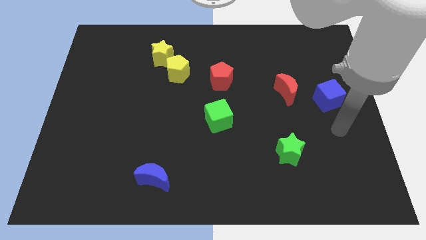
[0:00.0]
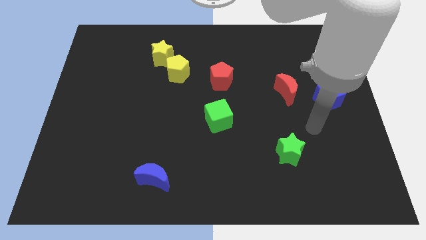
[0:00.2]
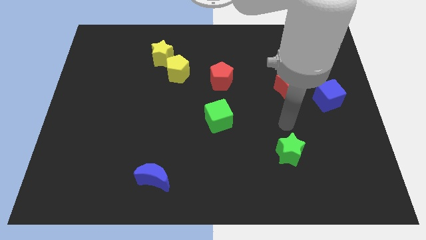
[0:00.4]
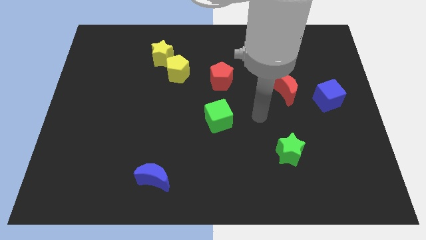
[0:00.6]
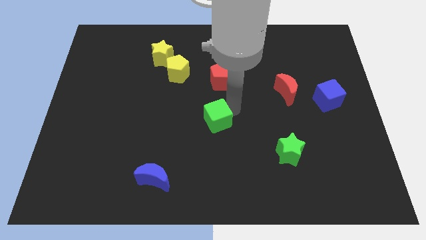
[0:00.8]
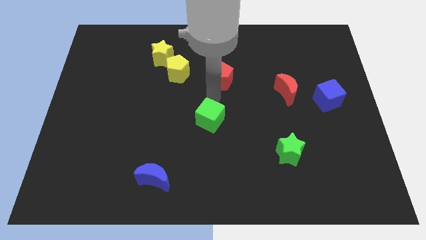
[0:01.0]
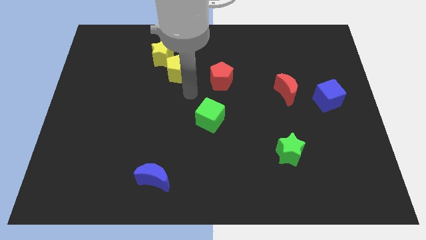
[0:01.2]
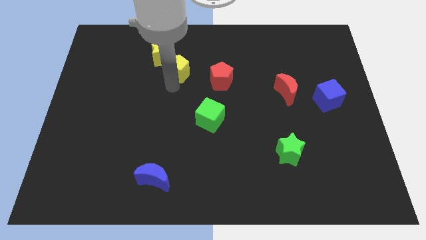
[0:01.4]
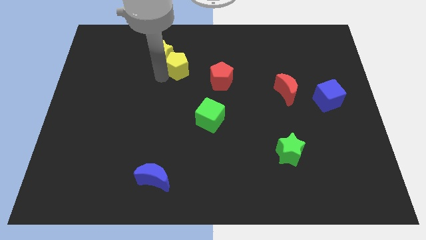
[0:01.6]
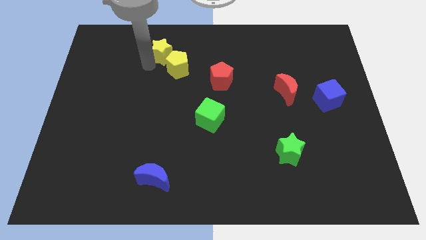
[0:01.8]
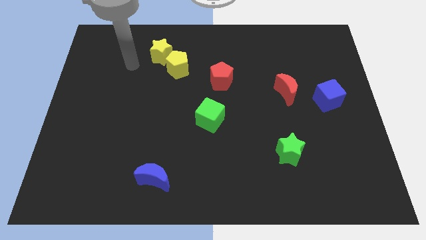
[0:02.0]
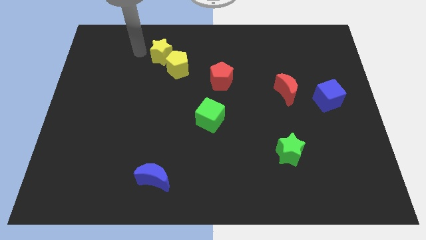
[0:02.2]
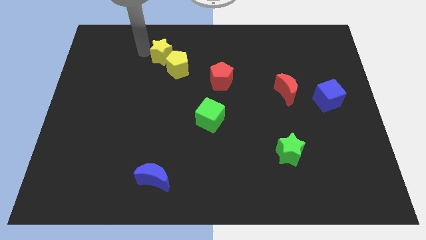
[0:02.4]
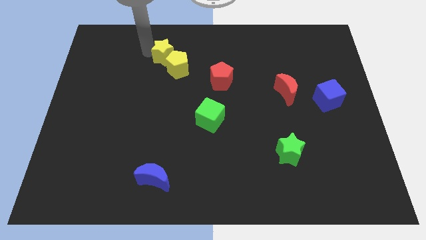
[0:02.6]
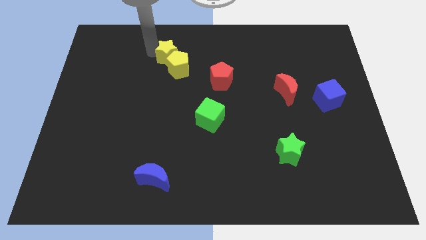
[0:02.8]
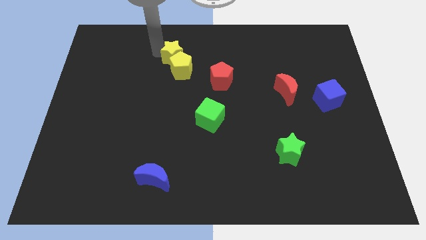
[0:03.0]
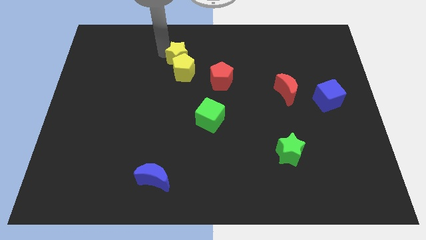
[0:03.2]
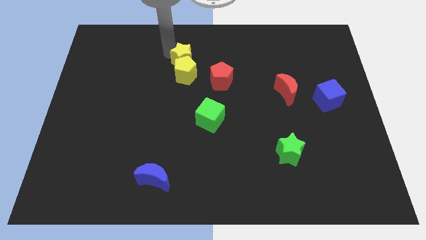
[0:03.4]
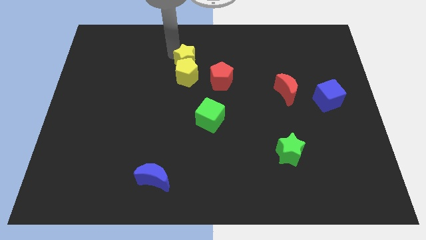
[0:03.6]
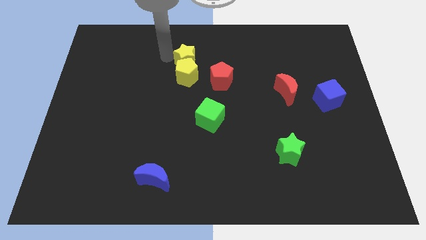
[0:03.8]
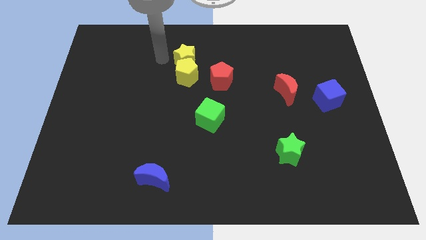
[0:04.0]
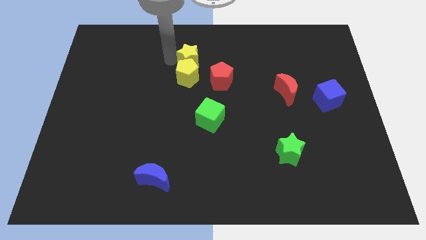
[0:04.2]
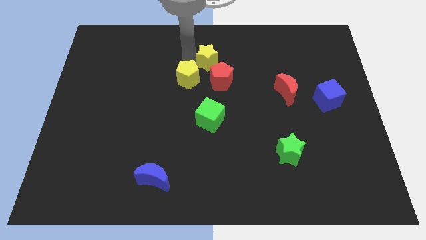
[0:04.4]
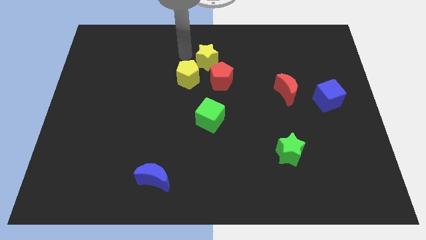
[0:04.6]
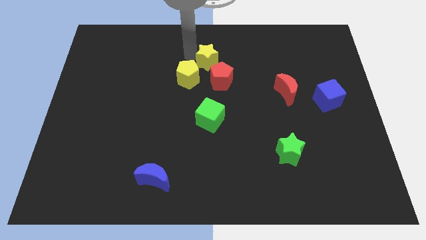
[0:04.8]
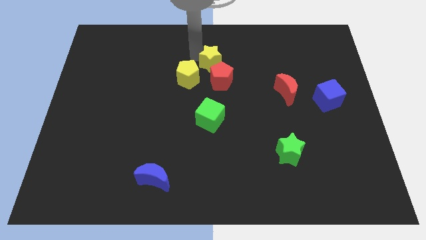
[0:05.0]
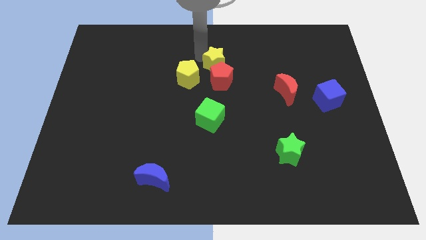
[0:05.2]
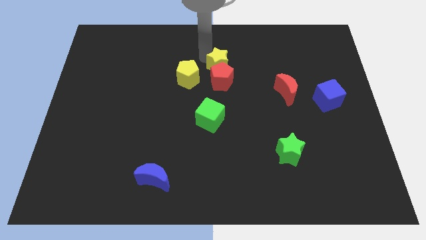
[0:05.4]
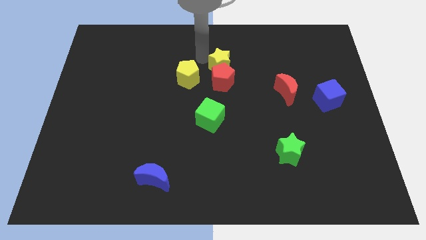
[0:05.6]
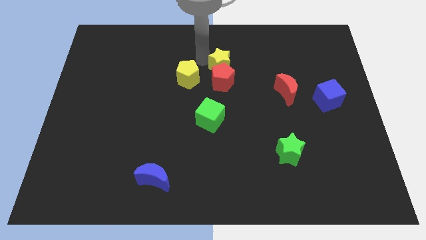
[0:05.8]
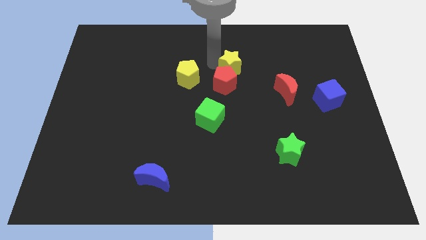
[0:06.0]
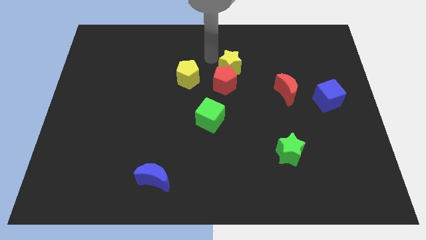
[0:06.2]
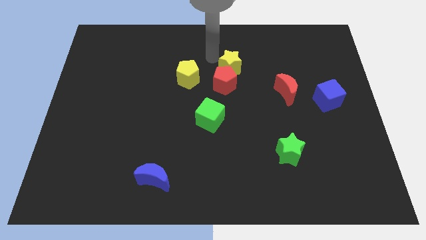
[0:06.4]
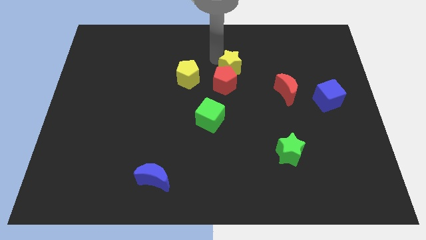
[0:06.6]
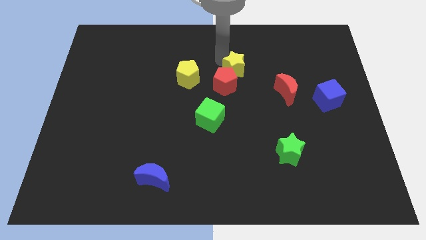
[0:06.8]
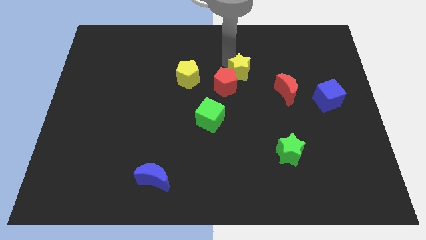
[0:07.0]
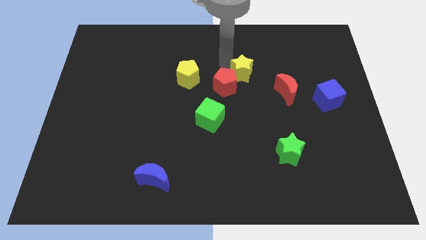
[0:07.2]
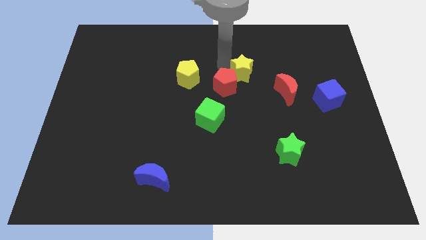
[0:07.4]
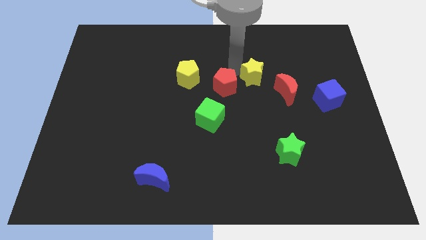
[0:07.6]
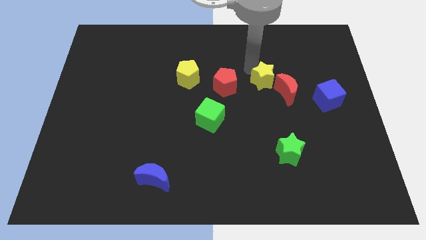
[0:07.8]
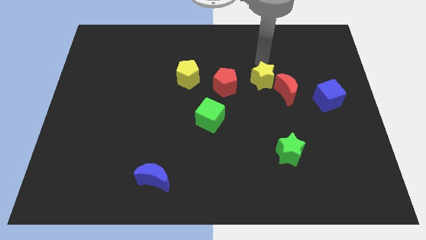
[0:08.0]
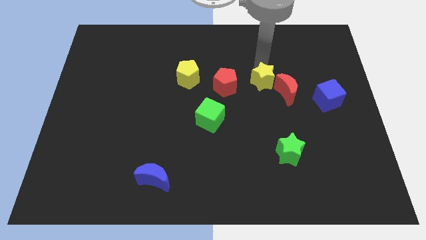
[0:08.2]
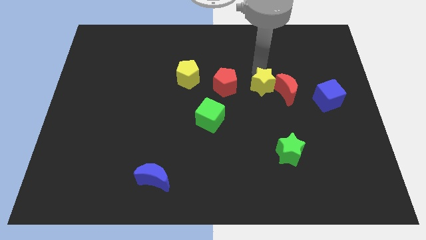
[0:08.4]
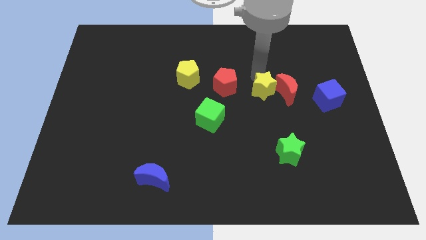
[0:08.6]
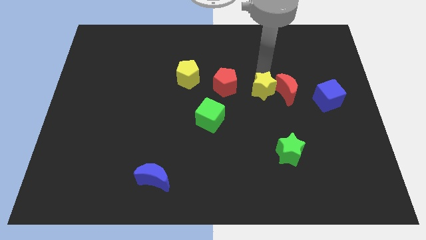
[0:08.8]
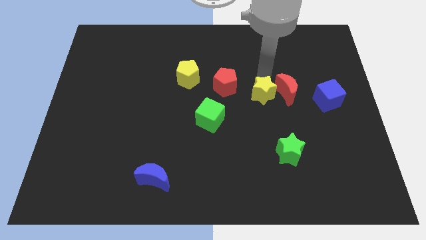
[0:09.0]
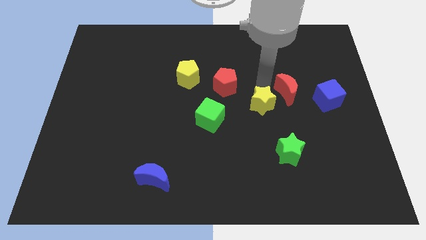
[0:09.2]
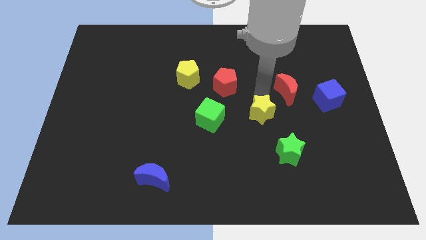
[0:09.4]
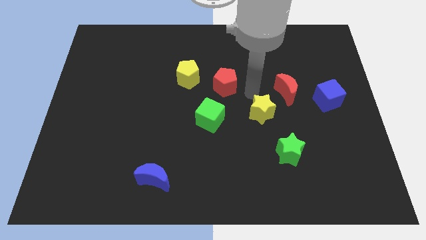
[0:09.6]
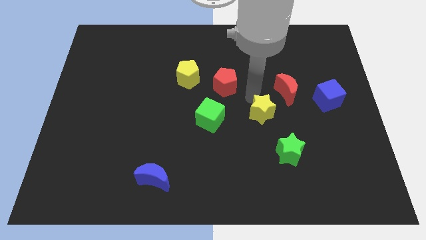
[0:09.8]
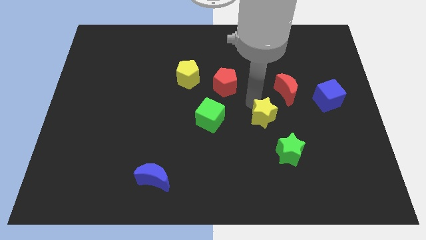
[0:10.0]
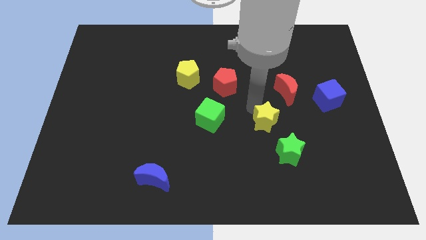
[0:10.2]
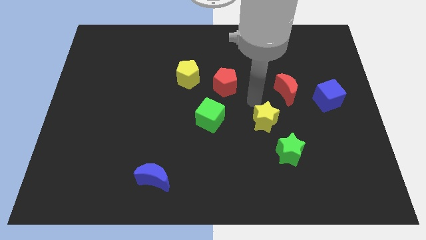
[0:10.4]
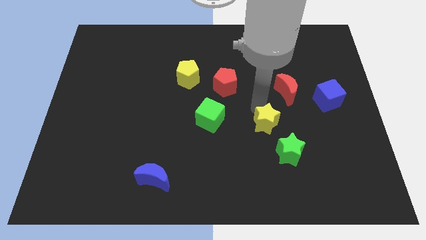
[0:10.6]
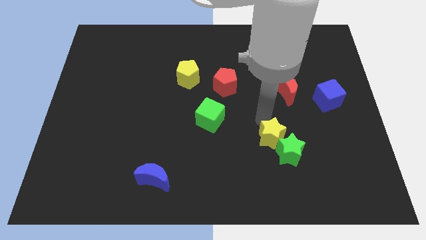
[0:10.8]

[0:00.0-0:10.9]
slide the yellow star next to the green star

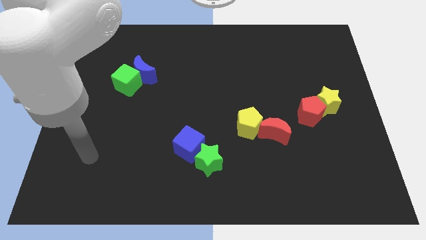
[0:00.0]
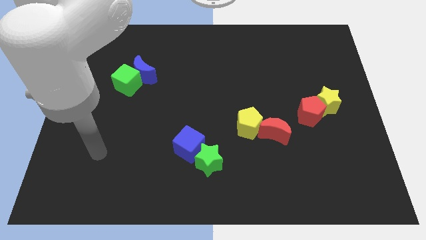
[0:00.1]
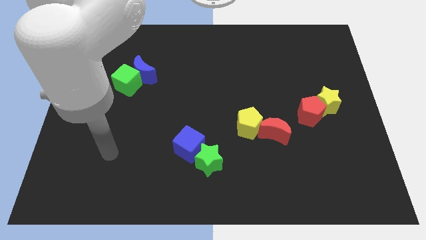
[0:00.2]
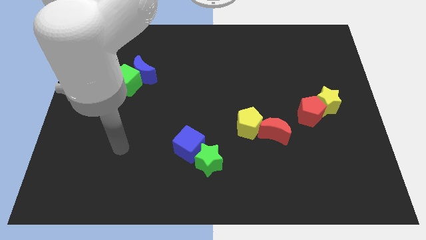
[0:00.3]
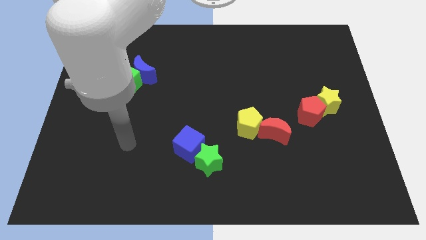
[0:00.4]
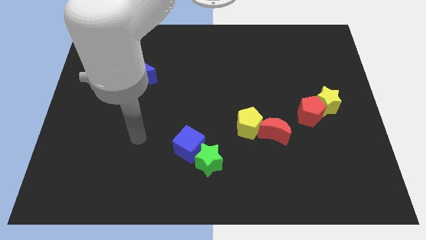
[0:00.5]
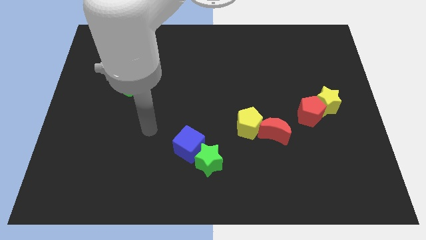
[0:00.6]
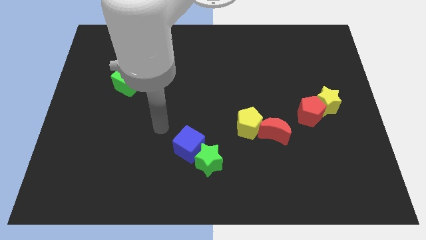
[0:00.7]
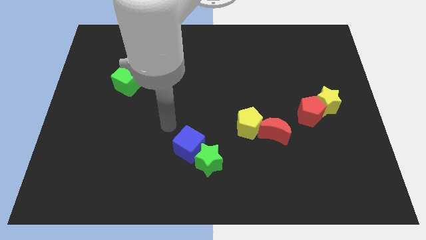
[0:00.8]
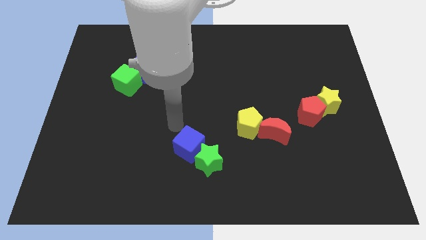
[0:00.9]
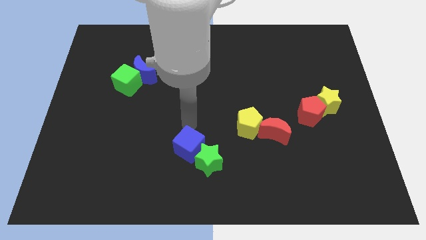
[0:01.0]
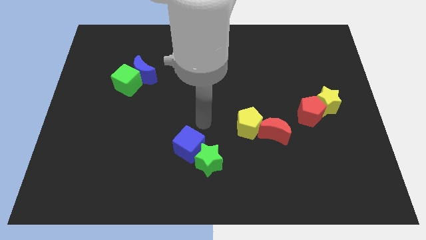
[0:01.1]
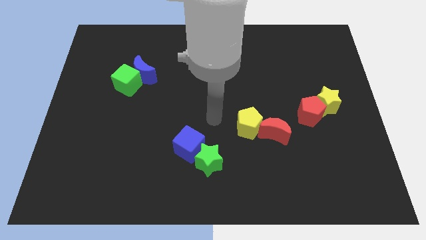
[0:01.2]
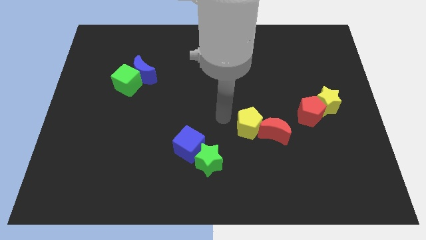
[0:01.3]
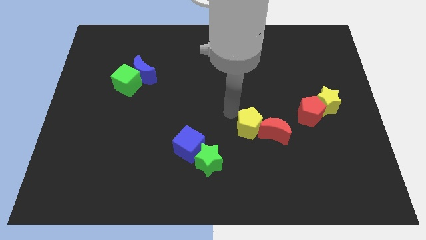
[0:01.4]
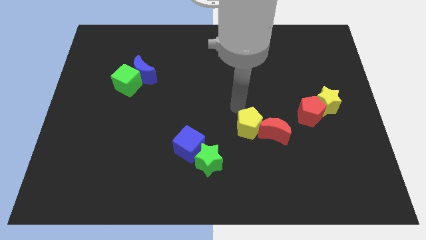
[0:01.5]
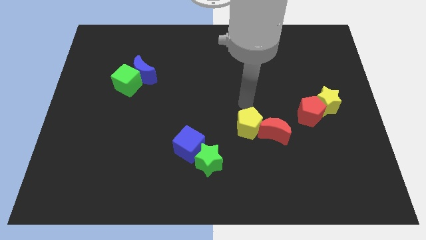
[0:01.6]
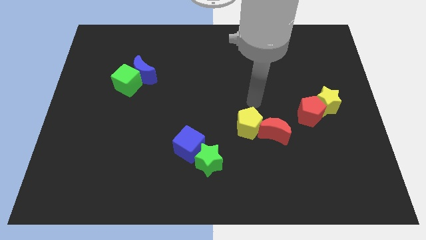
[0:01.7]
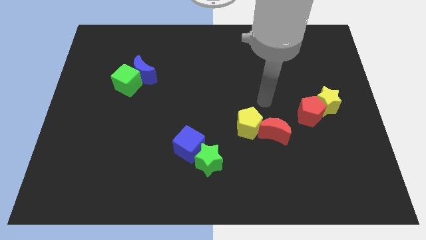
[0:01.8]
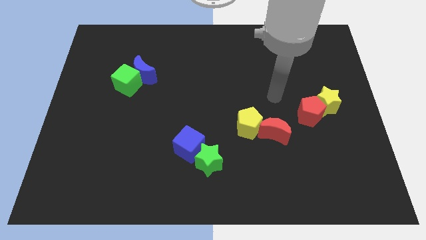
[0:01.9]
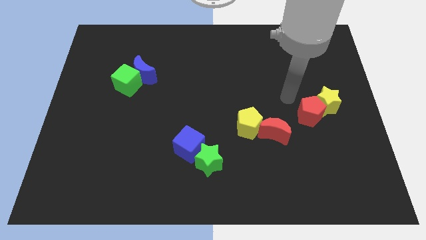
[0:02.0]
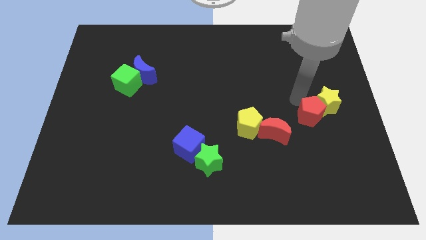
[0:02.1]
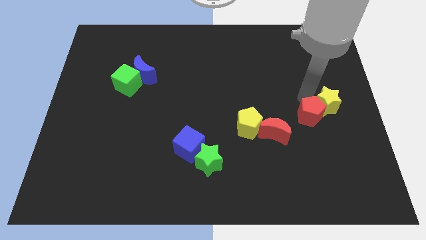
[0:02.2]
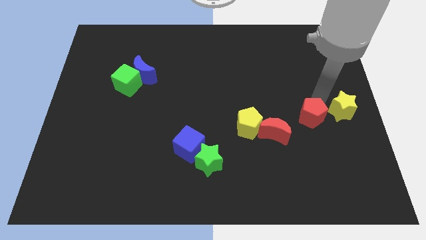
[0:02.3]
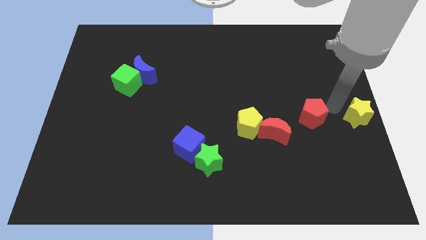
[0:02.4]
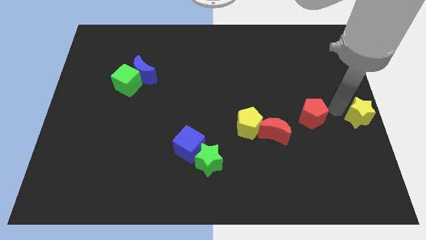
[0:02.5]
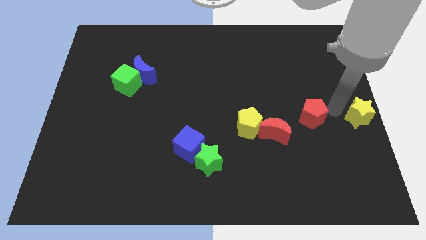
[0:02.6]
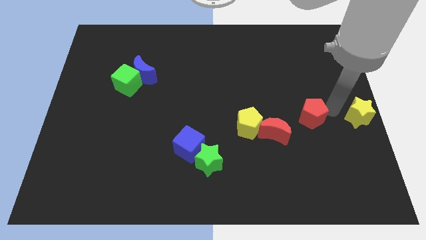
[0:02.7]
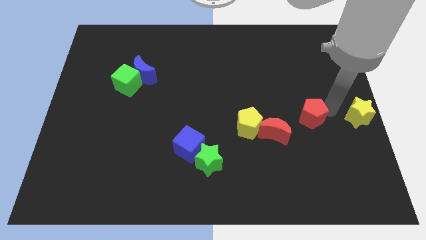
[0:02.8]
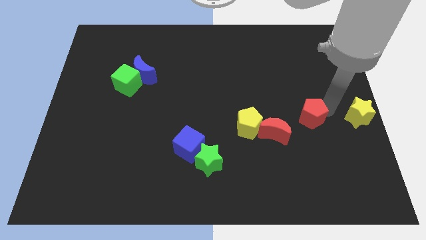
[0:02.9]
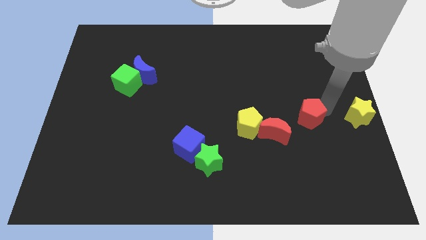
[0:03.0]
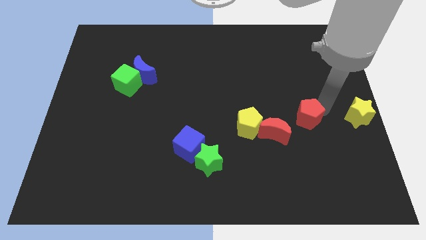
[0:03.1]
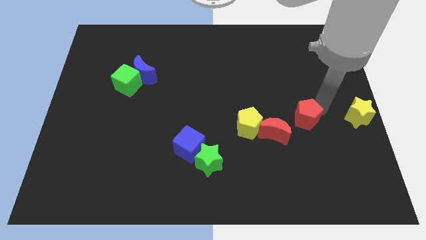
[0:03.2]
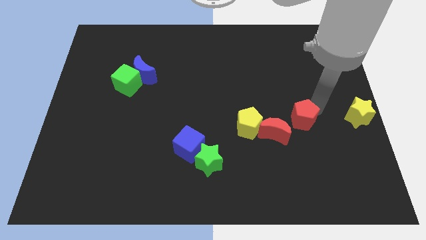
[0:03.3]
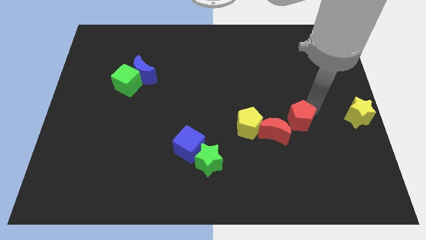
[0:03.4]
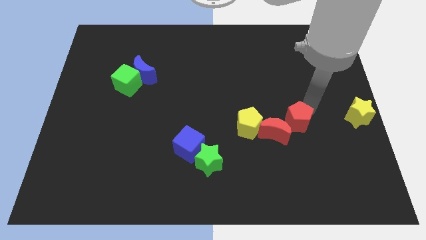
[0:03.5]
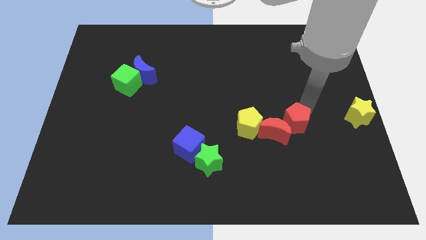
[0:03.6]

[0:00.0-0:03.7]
slide the red pentagon to the red moon
